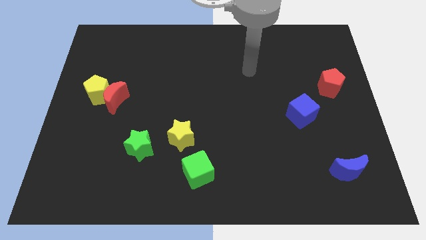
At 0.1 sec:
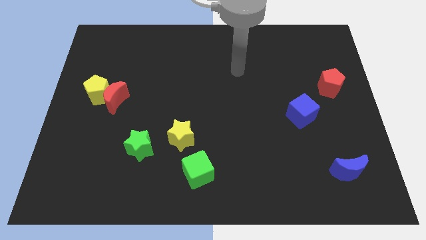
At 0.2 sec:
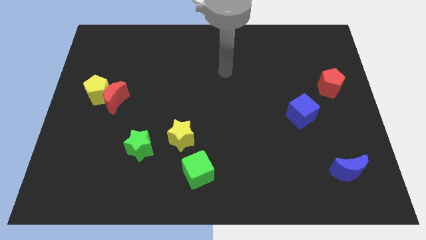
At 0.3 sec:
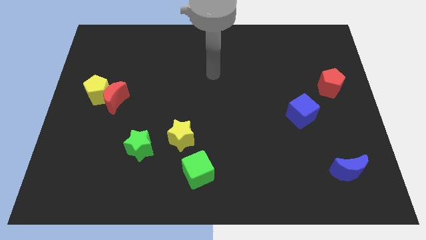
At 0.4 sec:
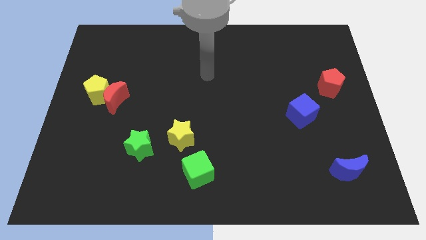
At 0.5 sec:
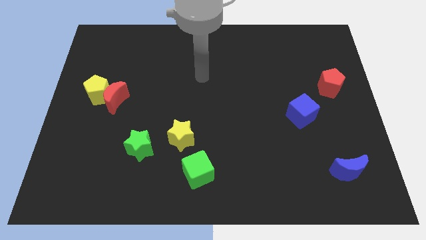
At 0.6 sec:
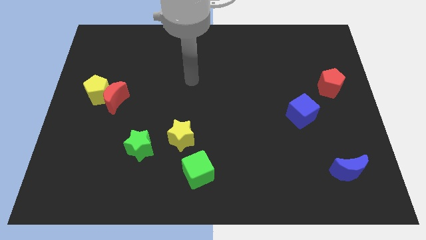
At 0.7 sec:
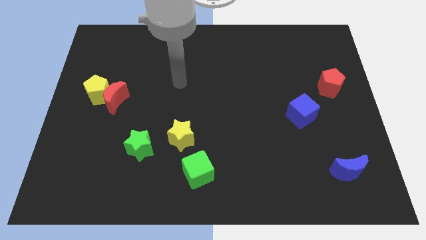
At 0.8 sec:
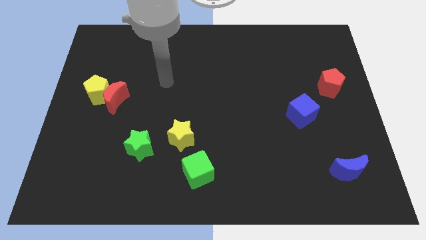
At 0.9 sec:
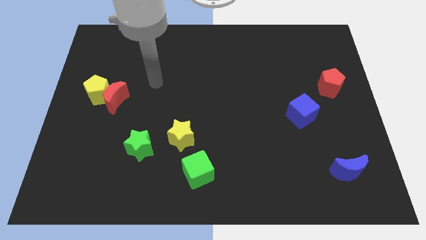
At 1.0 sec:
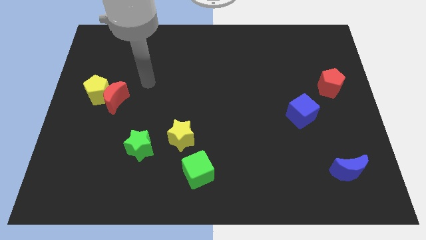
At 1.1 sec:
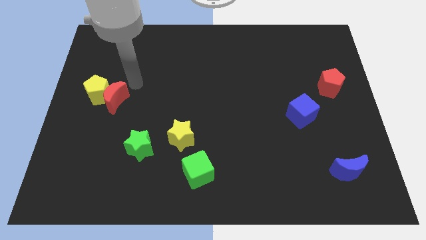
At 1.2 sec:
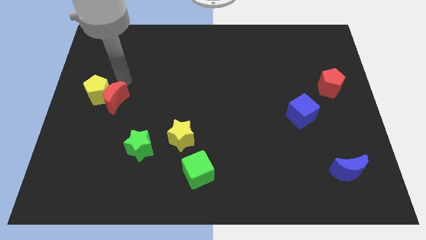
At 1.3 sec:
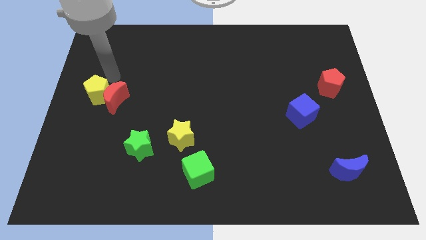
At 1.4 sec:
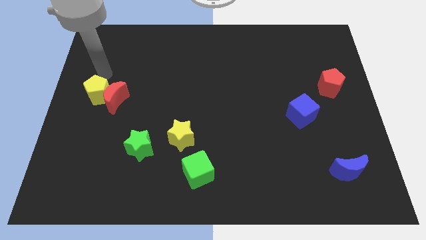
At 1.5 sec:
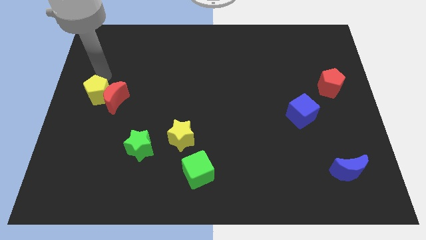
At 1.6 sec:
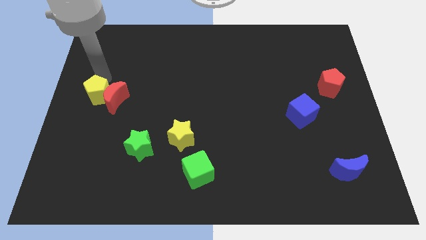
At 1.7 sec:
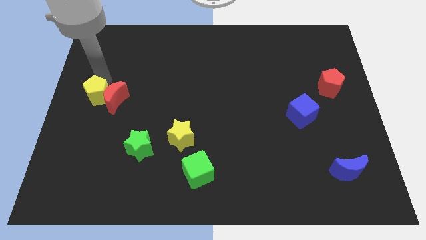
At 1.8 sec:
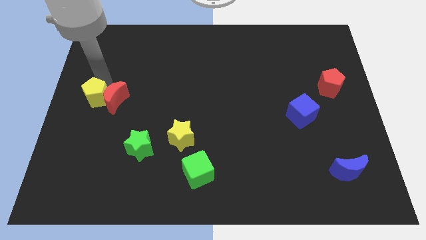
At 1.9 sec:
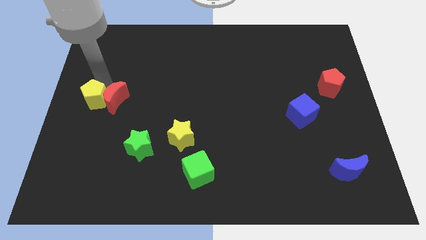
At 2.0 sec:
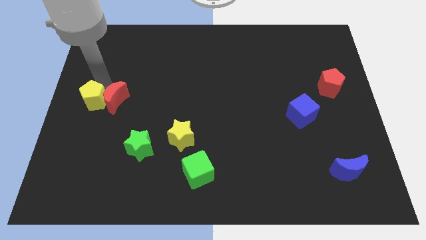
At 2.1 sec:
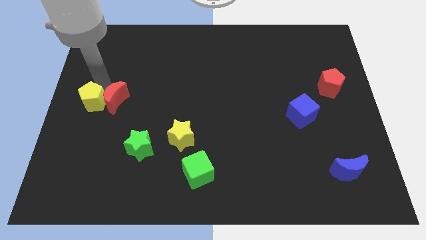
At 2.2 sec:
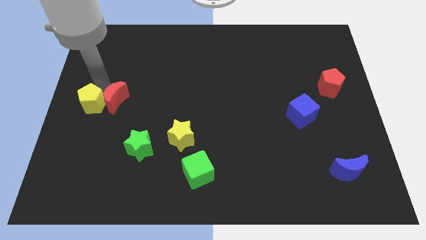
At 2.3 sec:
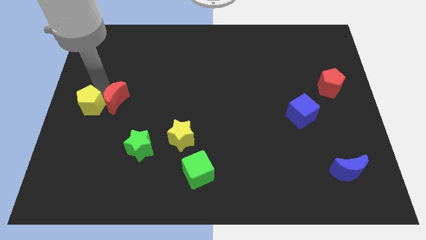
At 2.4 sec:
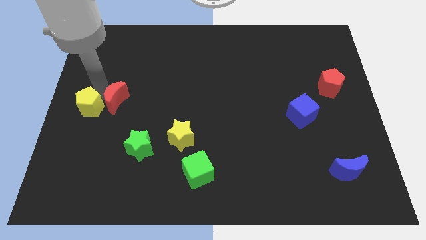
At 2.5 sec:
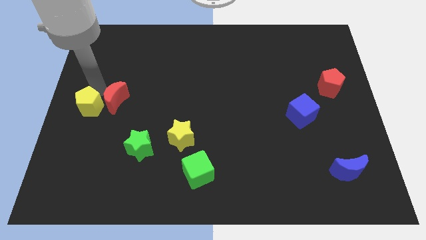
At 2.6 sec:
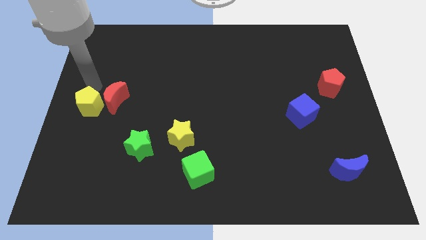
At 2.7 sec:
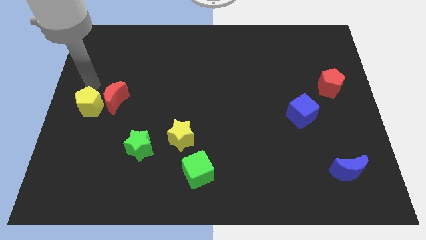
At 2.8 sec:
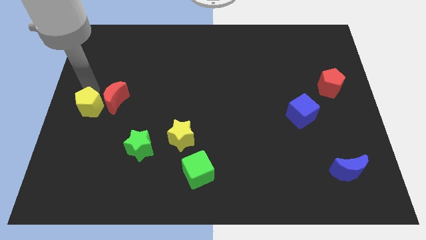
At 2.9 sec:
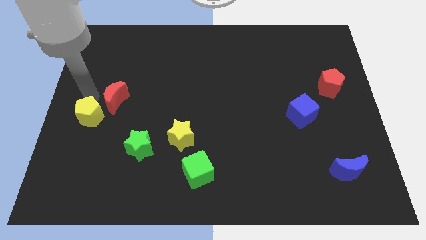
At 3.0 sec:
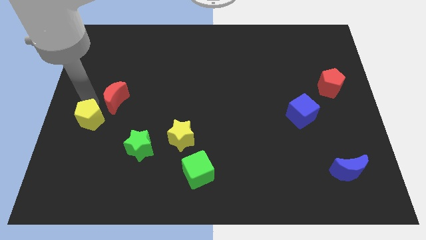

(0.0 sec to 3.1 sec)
push the yellow pentagon down a little bit

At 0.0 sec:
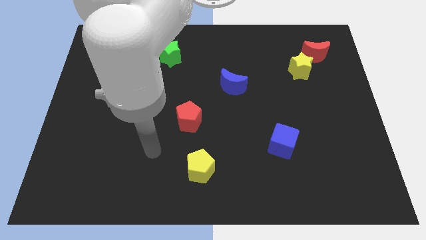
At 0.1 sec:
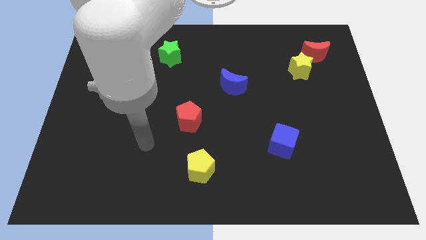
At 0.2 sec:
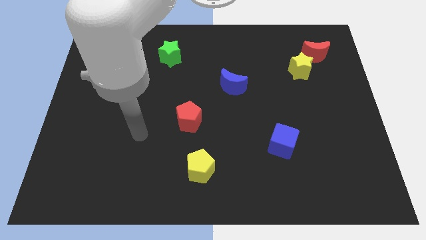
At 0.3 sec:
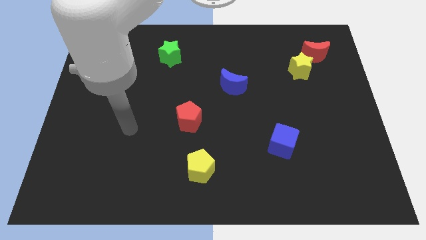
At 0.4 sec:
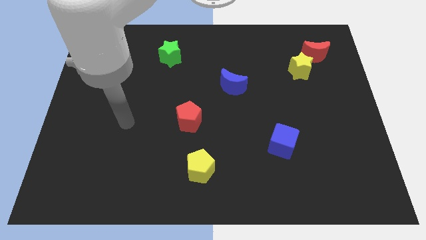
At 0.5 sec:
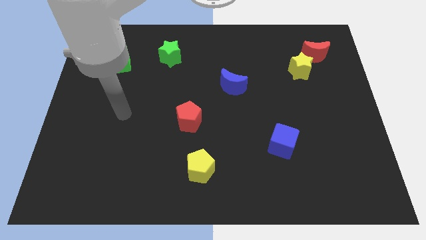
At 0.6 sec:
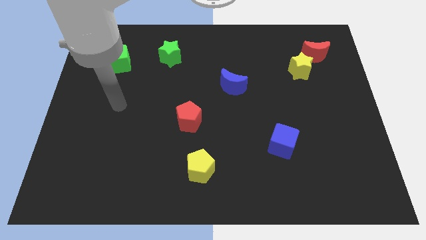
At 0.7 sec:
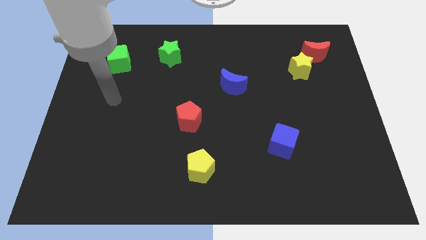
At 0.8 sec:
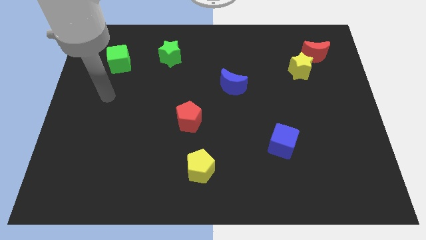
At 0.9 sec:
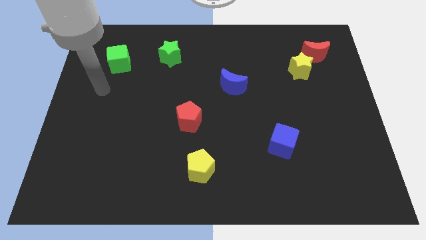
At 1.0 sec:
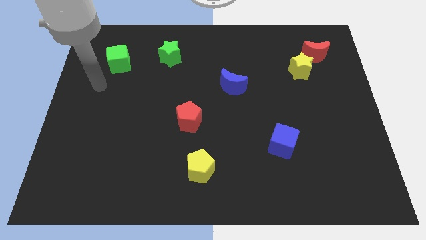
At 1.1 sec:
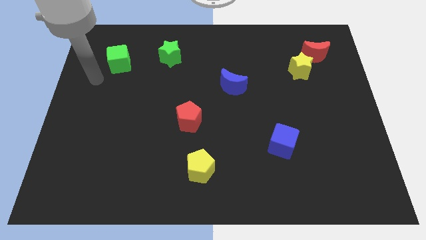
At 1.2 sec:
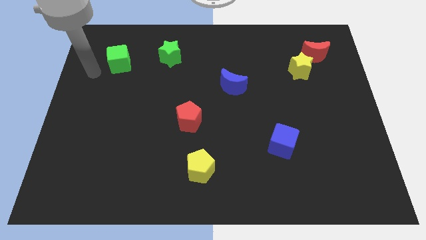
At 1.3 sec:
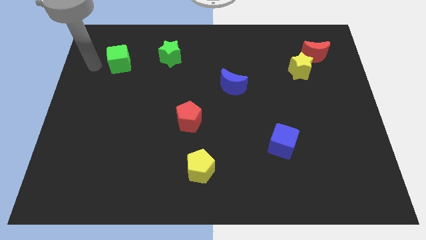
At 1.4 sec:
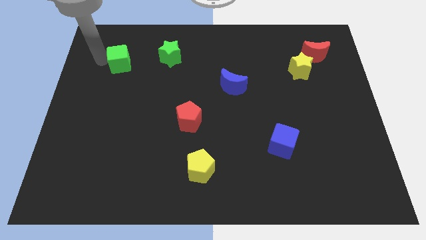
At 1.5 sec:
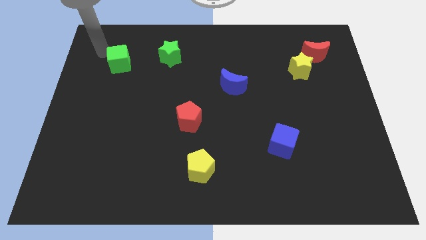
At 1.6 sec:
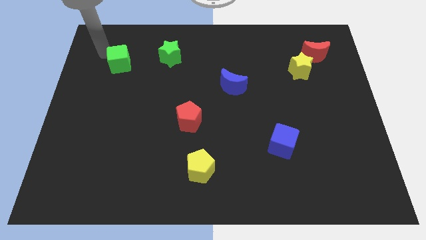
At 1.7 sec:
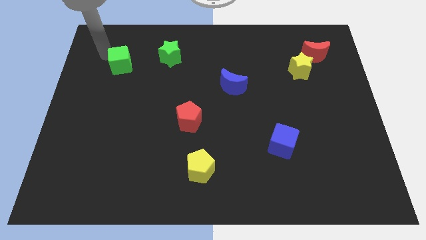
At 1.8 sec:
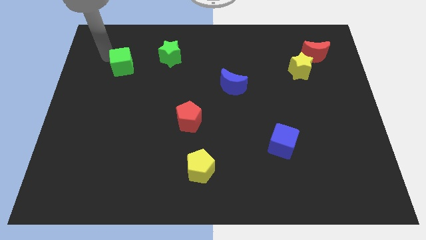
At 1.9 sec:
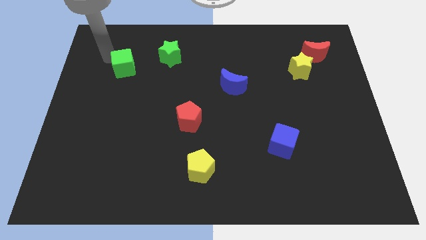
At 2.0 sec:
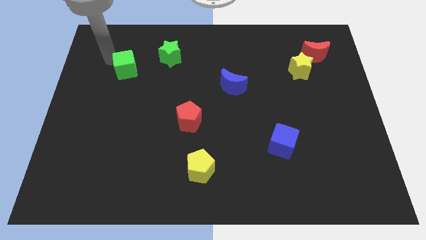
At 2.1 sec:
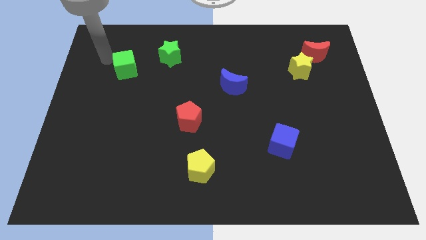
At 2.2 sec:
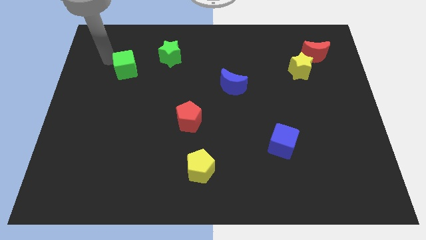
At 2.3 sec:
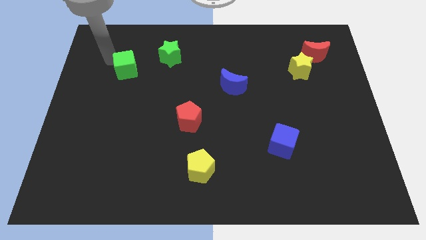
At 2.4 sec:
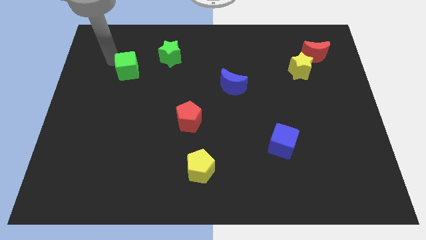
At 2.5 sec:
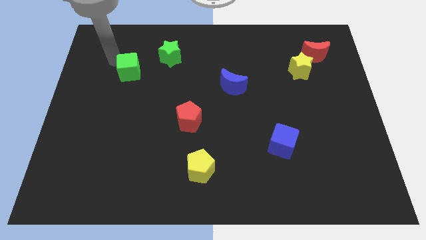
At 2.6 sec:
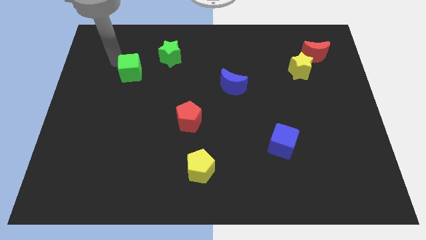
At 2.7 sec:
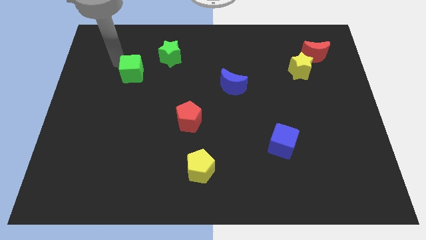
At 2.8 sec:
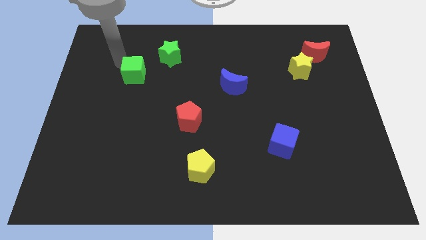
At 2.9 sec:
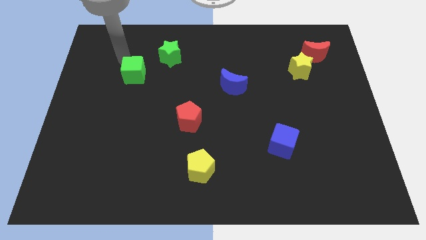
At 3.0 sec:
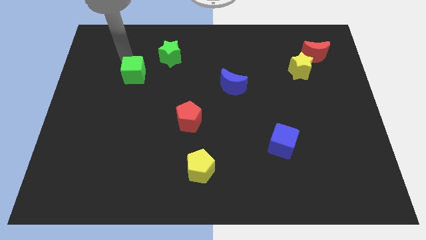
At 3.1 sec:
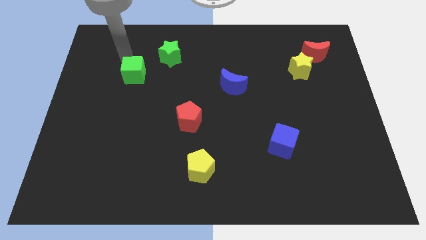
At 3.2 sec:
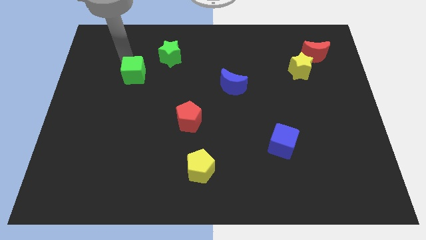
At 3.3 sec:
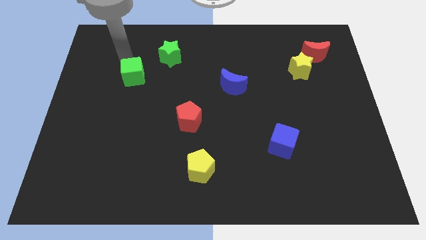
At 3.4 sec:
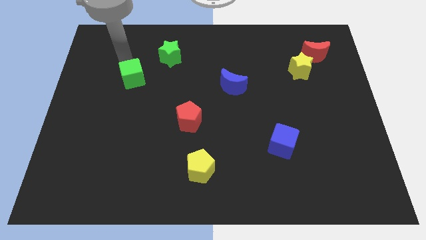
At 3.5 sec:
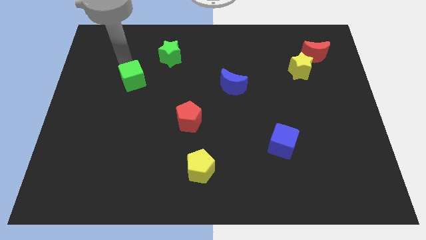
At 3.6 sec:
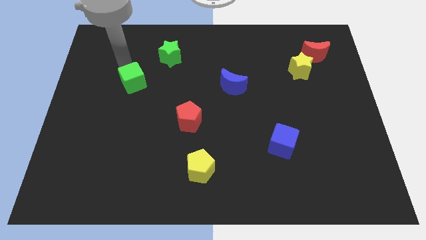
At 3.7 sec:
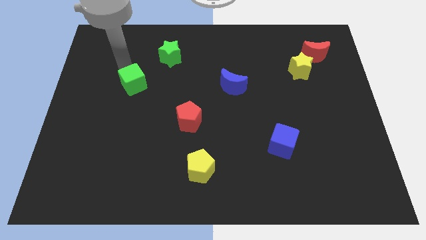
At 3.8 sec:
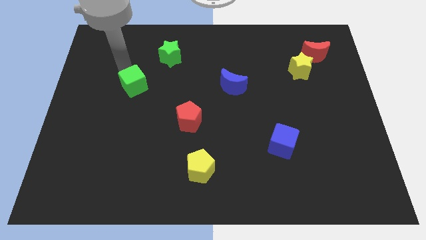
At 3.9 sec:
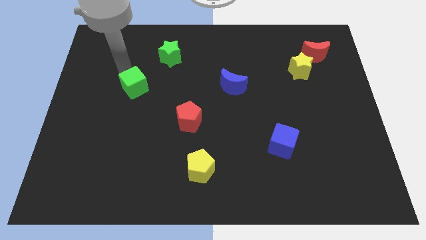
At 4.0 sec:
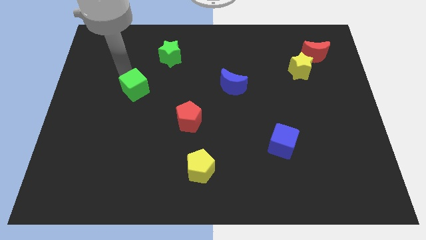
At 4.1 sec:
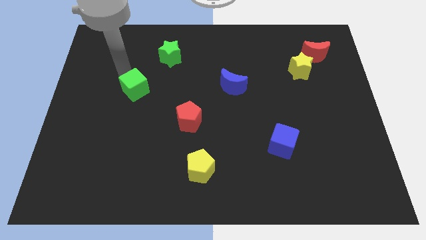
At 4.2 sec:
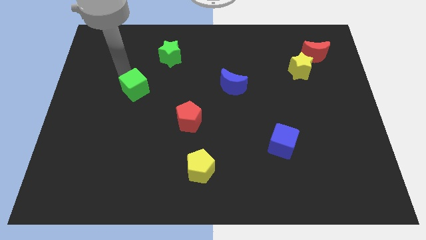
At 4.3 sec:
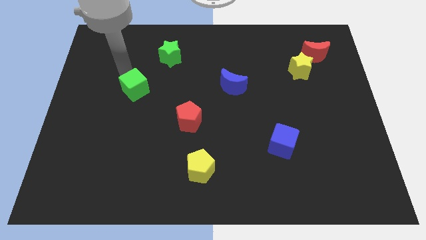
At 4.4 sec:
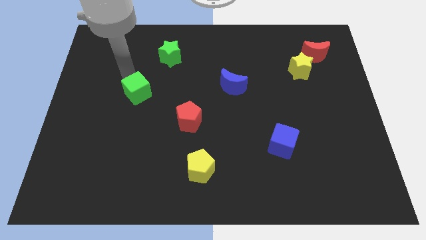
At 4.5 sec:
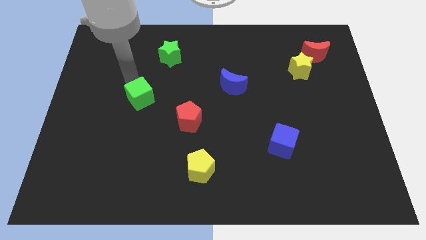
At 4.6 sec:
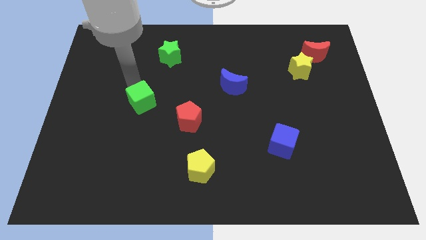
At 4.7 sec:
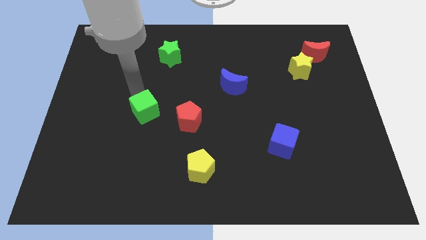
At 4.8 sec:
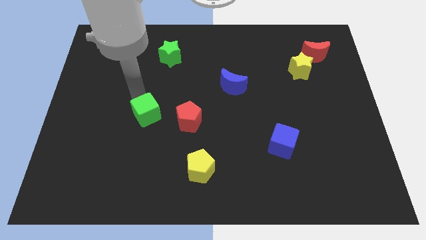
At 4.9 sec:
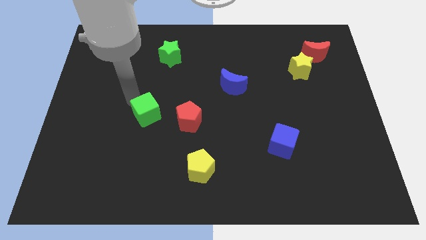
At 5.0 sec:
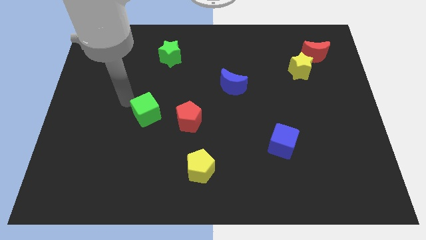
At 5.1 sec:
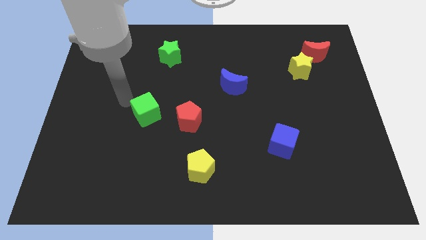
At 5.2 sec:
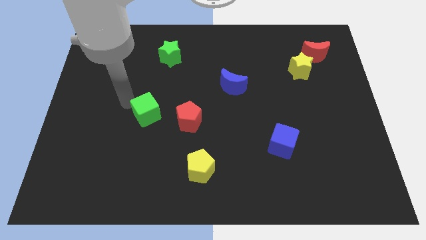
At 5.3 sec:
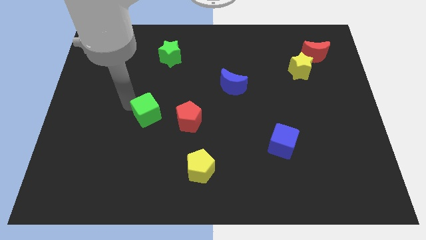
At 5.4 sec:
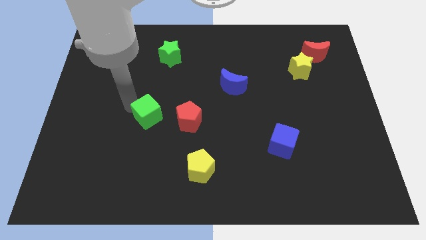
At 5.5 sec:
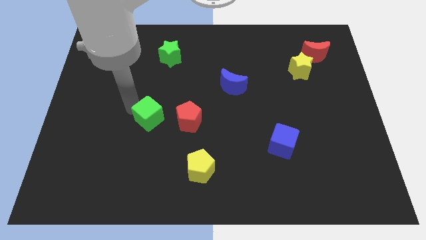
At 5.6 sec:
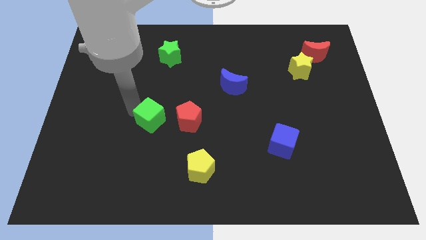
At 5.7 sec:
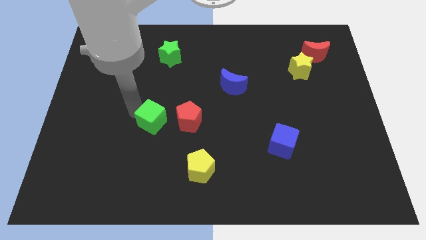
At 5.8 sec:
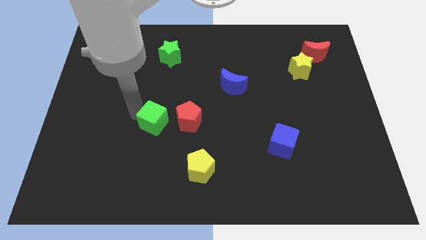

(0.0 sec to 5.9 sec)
push the green cube diagonally down and right
